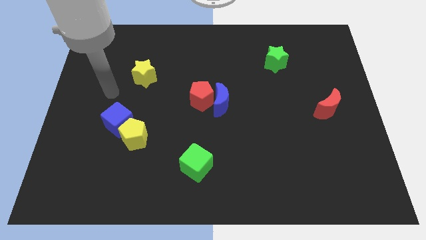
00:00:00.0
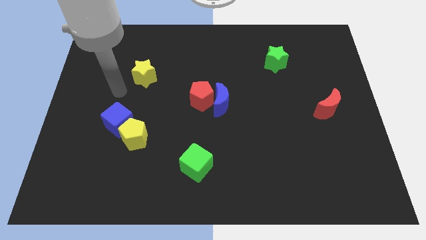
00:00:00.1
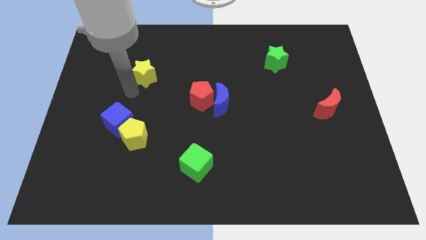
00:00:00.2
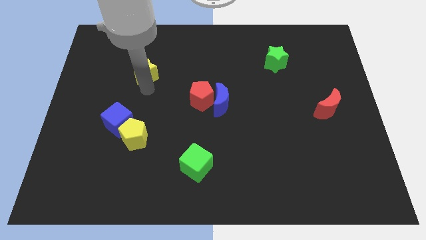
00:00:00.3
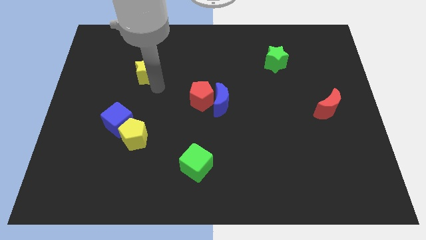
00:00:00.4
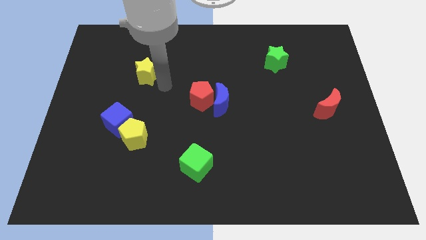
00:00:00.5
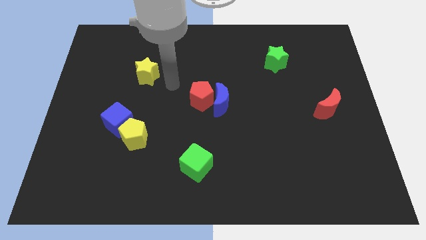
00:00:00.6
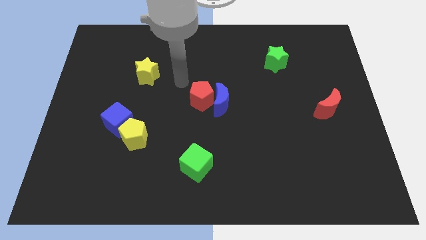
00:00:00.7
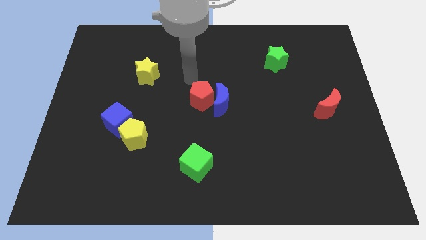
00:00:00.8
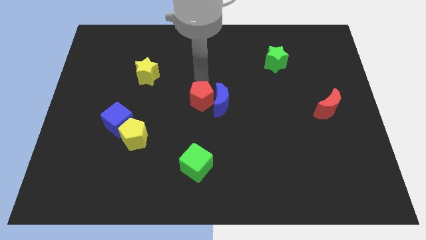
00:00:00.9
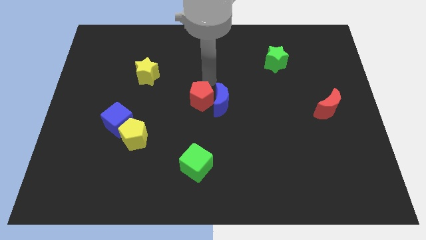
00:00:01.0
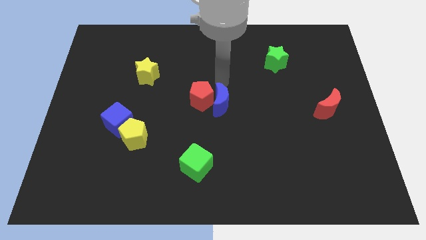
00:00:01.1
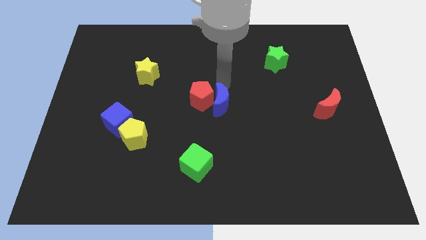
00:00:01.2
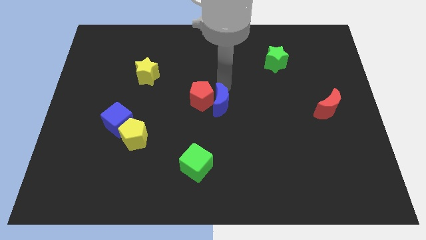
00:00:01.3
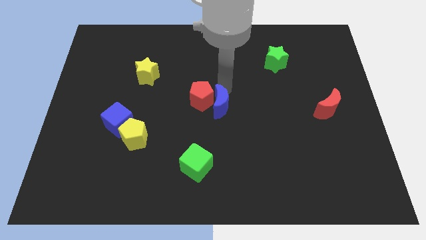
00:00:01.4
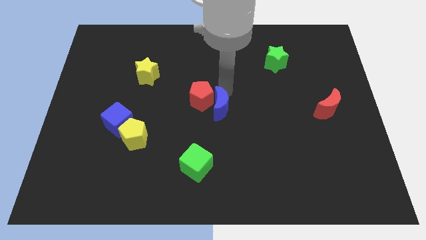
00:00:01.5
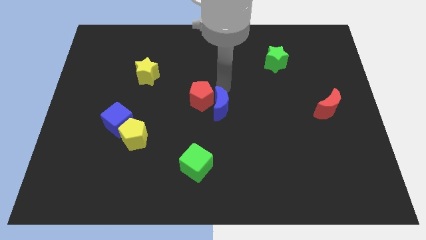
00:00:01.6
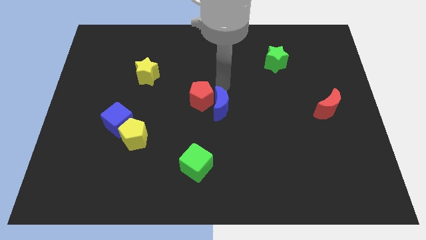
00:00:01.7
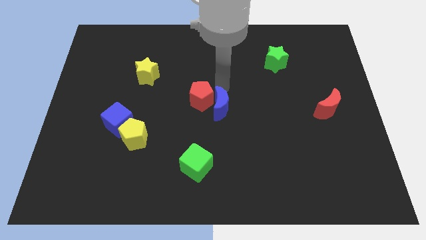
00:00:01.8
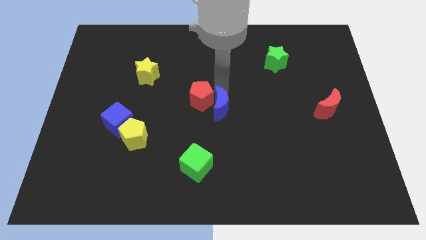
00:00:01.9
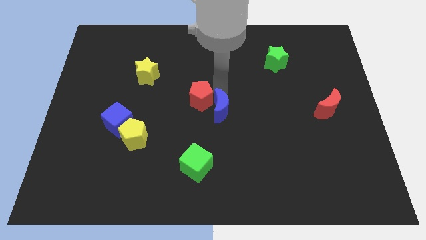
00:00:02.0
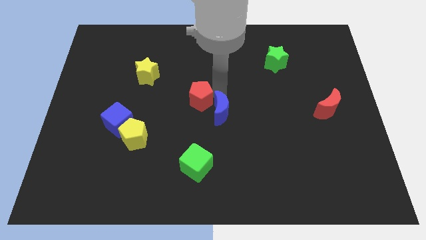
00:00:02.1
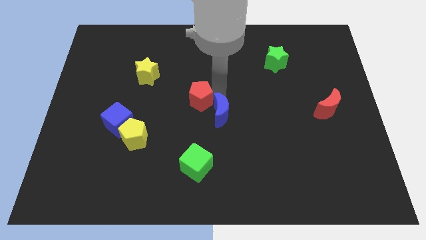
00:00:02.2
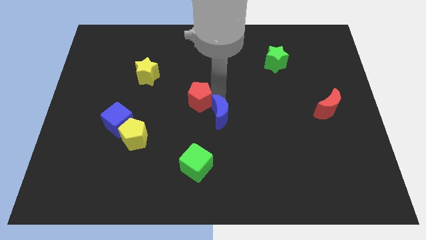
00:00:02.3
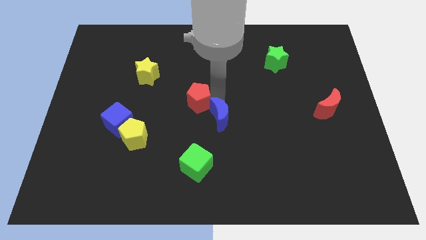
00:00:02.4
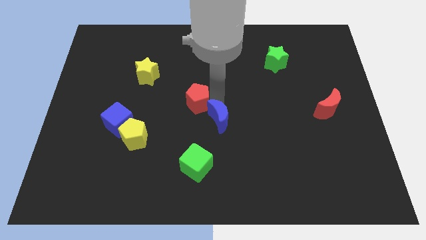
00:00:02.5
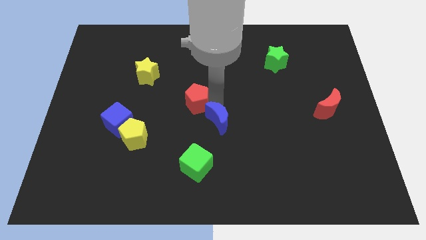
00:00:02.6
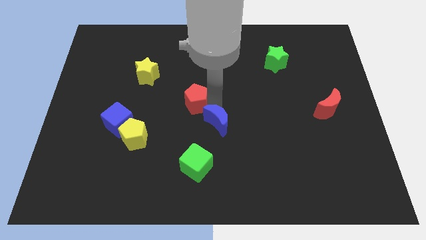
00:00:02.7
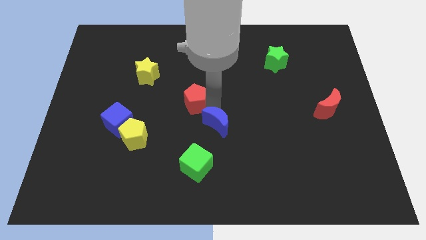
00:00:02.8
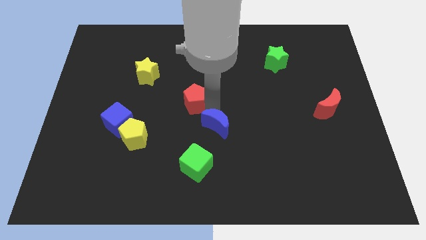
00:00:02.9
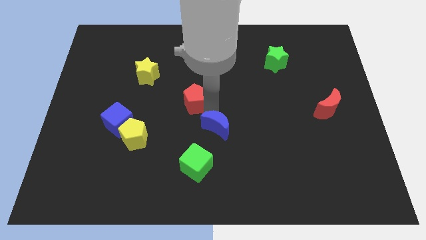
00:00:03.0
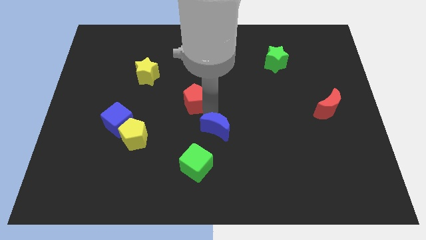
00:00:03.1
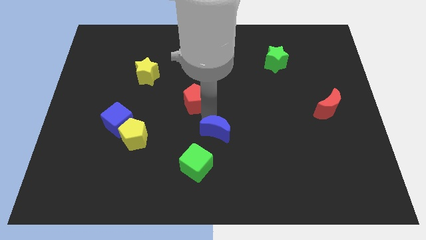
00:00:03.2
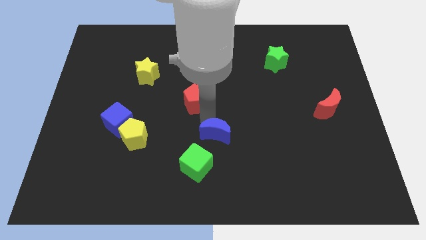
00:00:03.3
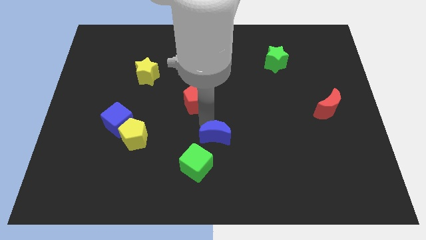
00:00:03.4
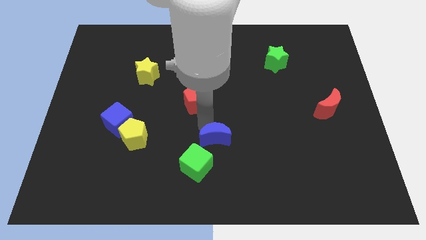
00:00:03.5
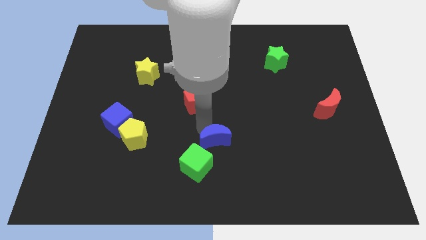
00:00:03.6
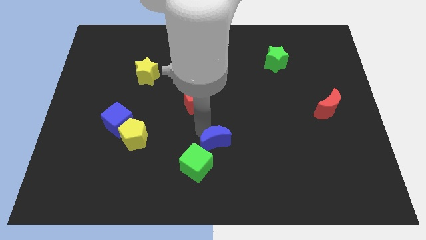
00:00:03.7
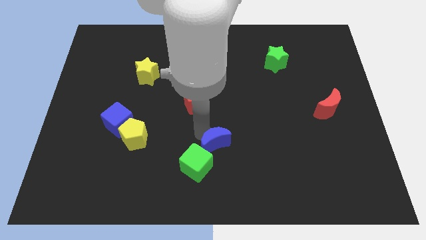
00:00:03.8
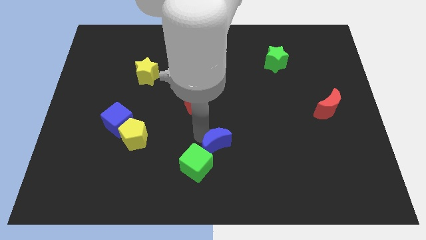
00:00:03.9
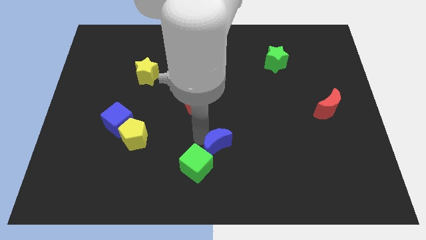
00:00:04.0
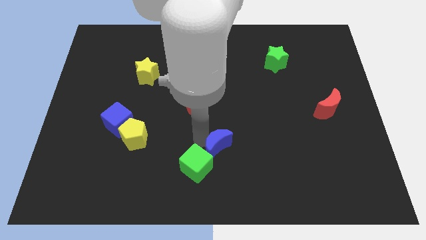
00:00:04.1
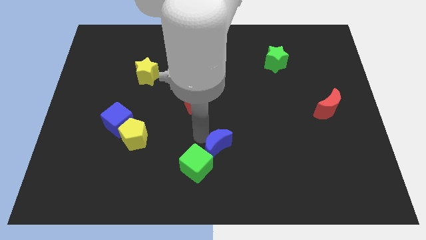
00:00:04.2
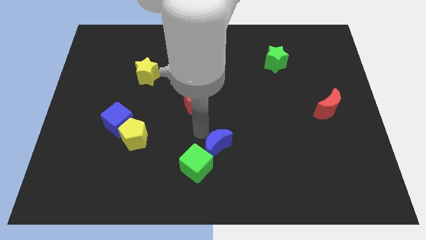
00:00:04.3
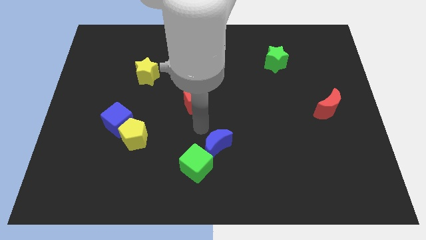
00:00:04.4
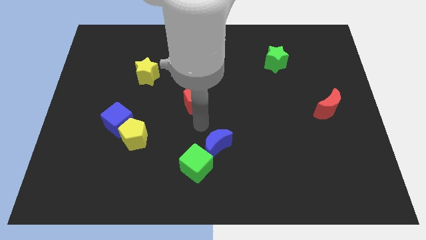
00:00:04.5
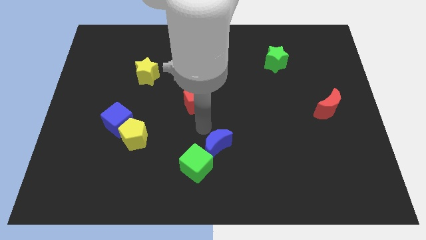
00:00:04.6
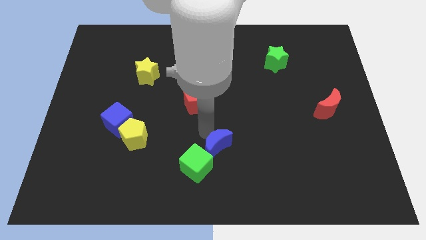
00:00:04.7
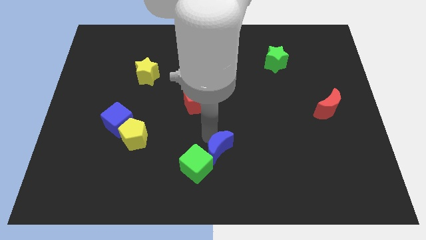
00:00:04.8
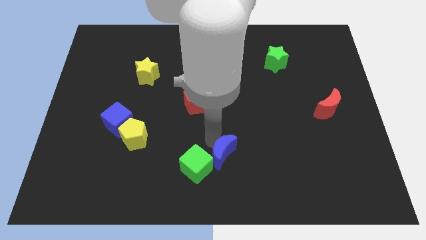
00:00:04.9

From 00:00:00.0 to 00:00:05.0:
slide the blue moon to the bottom side

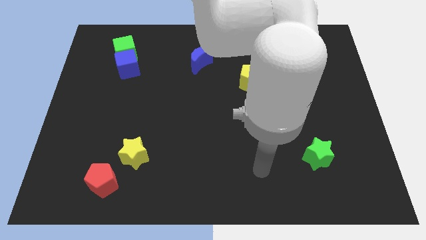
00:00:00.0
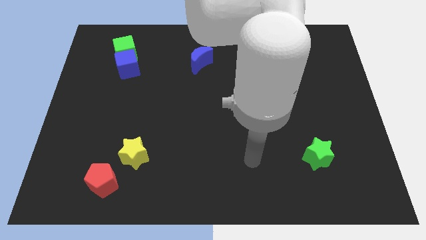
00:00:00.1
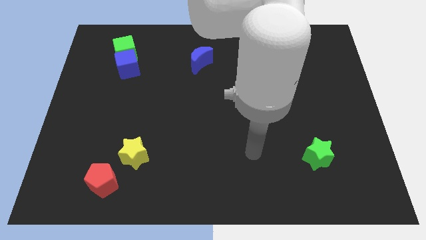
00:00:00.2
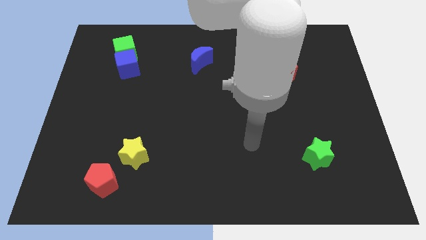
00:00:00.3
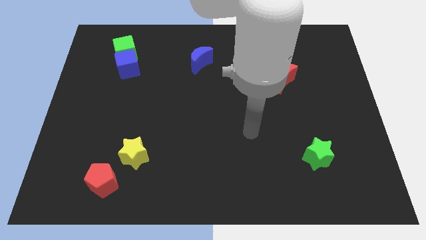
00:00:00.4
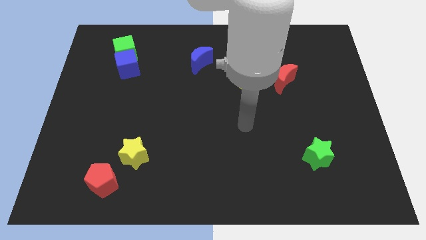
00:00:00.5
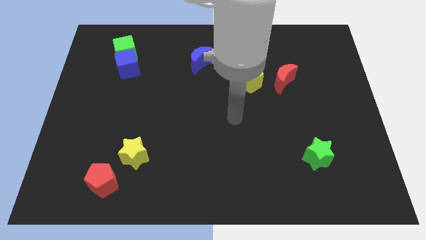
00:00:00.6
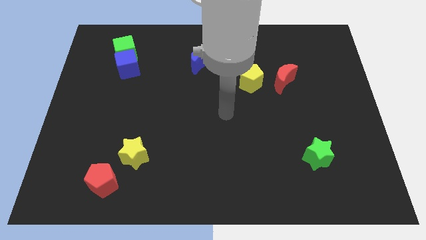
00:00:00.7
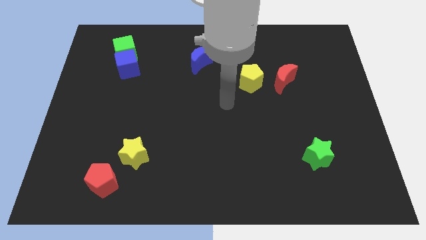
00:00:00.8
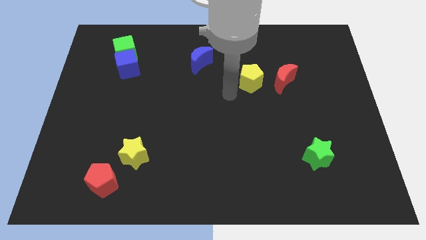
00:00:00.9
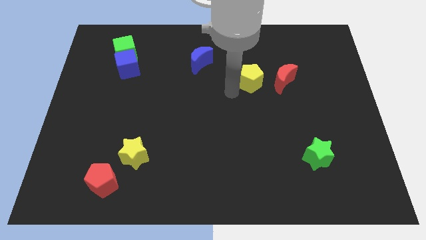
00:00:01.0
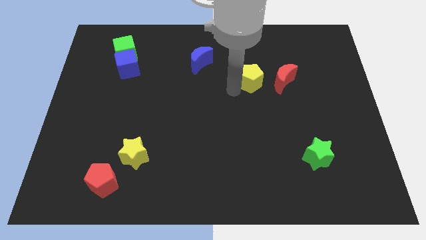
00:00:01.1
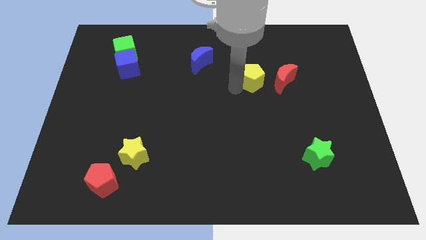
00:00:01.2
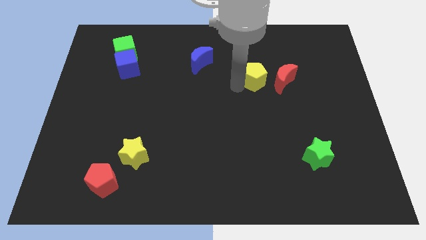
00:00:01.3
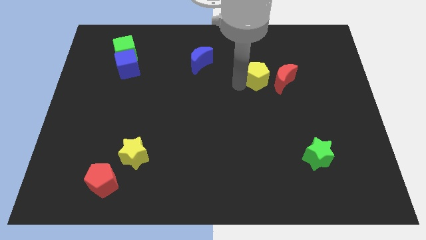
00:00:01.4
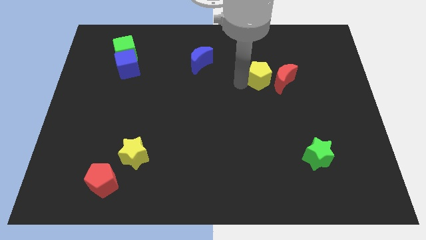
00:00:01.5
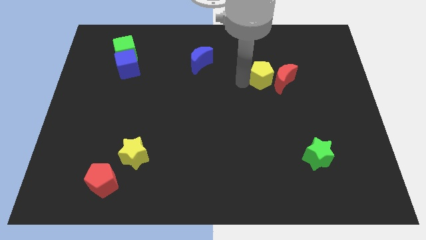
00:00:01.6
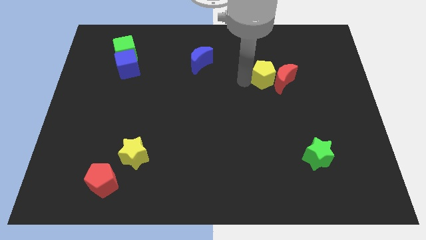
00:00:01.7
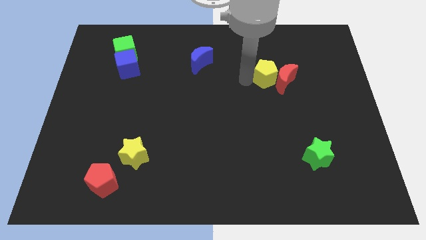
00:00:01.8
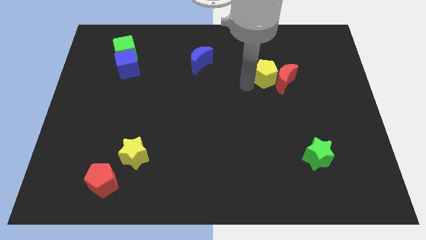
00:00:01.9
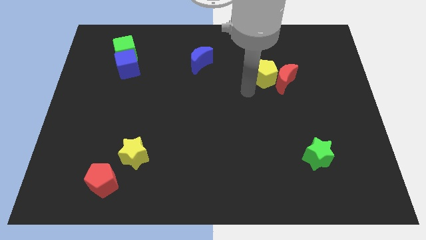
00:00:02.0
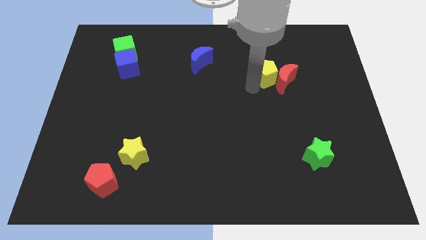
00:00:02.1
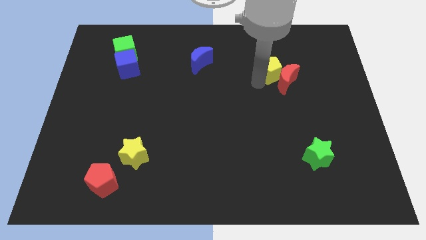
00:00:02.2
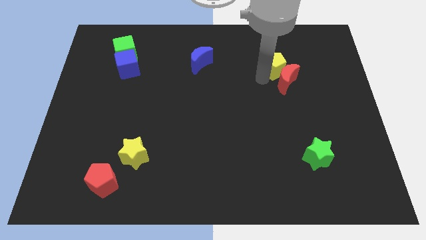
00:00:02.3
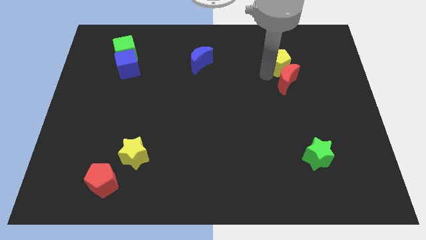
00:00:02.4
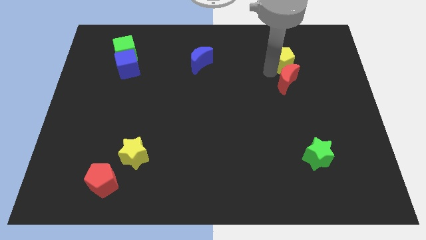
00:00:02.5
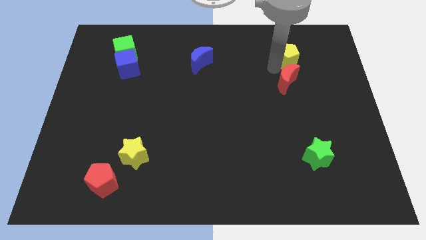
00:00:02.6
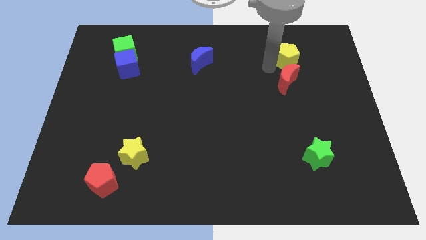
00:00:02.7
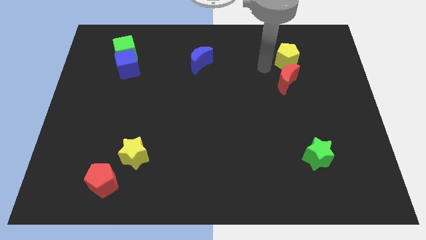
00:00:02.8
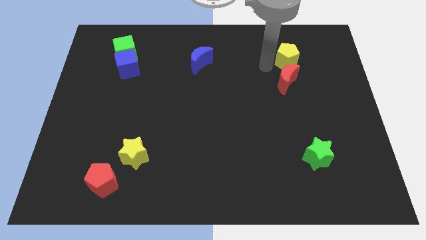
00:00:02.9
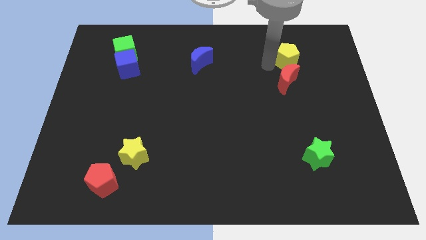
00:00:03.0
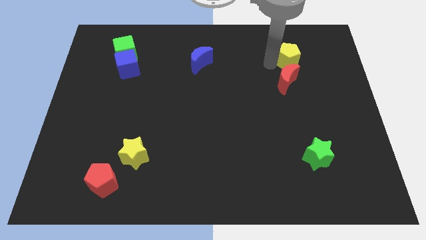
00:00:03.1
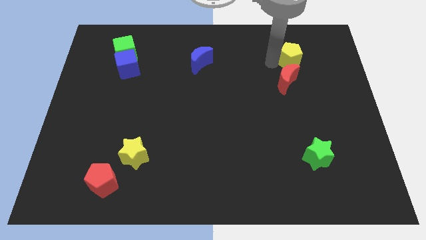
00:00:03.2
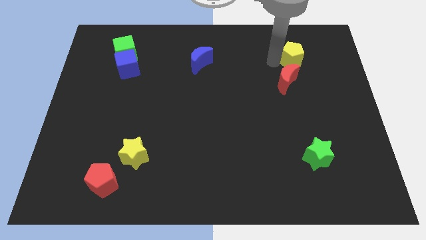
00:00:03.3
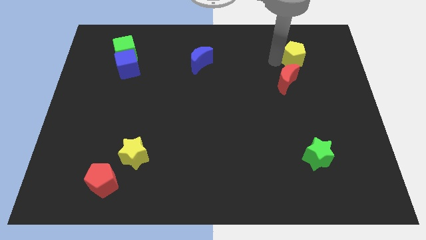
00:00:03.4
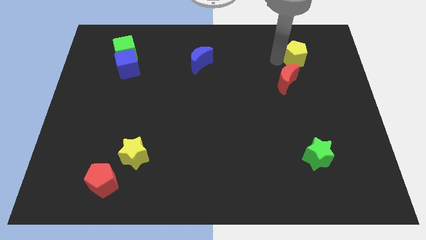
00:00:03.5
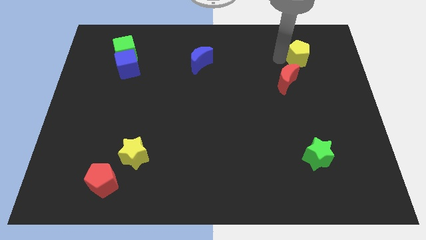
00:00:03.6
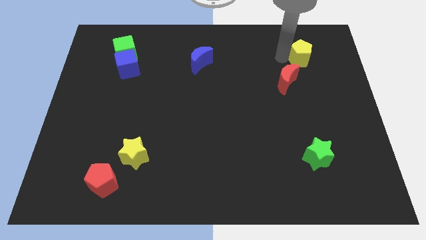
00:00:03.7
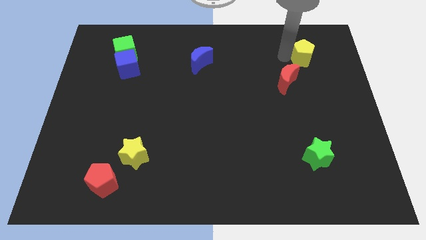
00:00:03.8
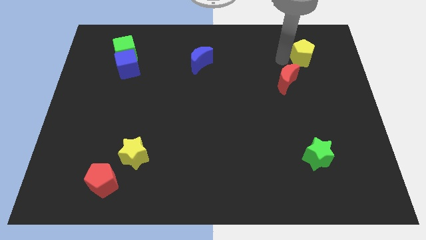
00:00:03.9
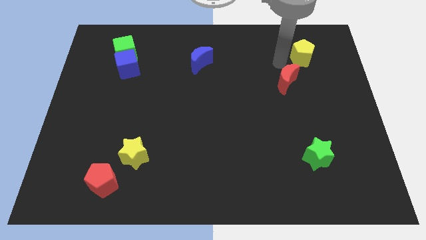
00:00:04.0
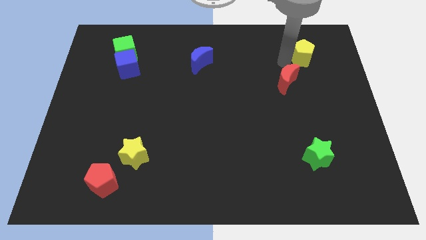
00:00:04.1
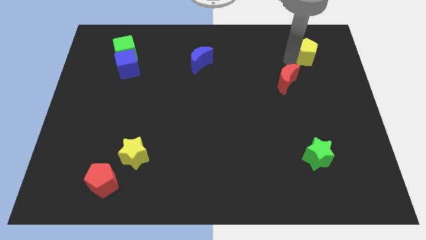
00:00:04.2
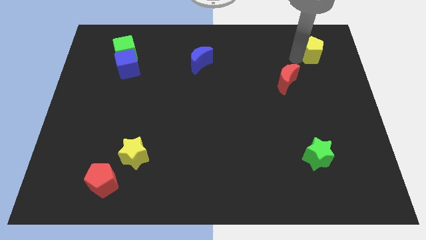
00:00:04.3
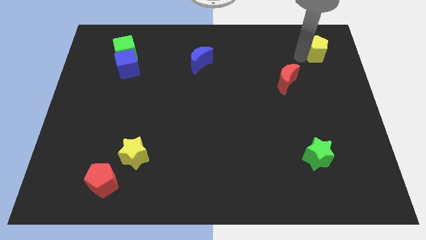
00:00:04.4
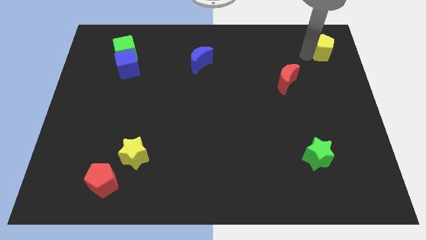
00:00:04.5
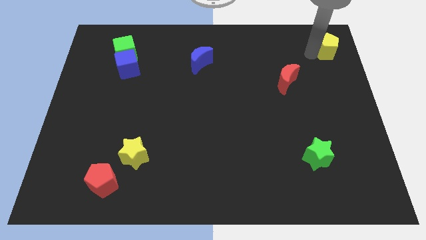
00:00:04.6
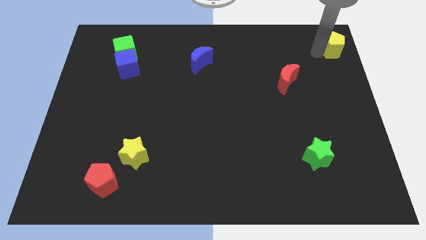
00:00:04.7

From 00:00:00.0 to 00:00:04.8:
put the yellow pentagon to the top right
